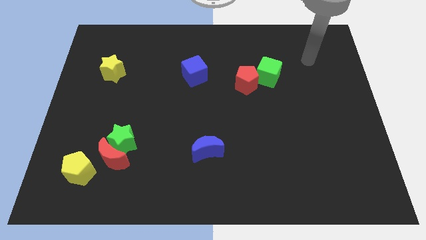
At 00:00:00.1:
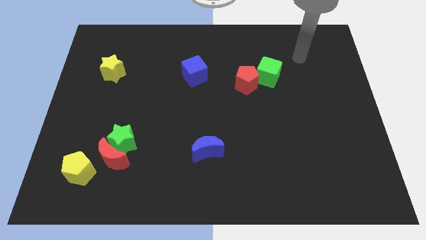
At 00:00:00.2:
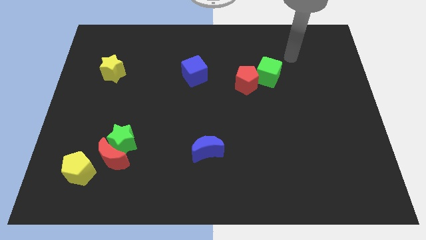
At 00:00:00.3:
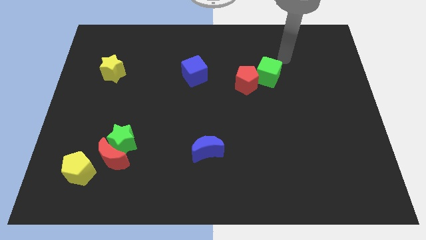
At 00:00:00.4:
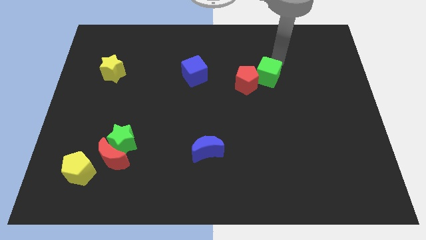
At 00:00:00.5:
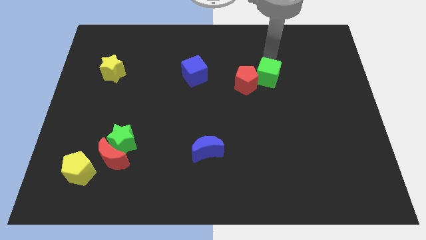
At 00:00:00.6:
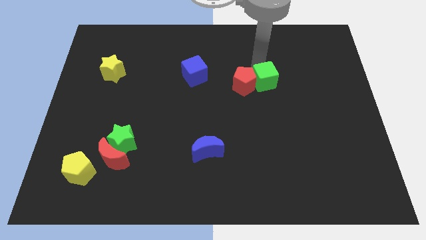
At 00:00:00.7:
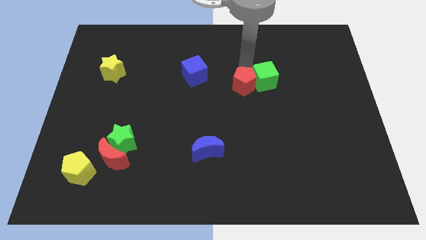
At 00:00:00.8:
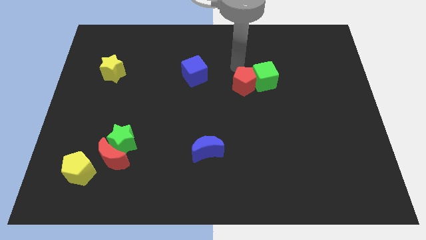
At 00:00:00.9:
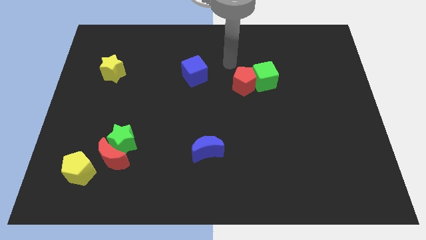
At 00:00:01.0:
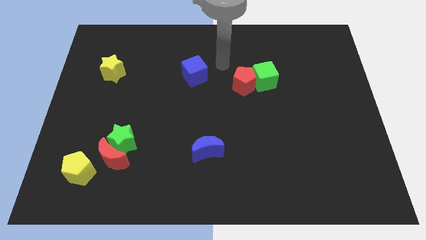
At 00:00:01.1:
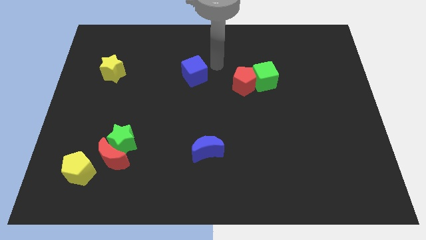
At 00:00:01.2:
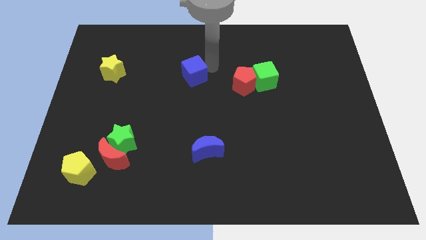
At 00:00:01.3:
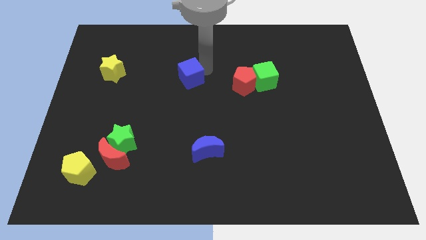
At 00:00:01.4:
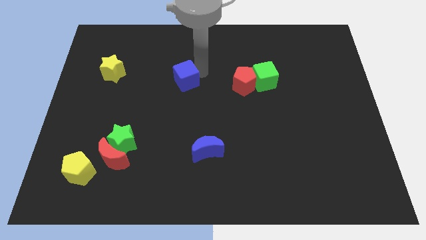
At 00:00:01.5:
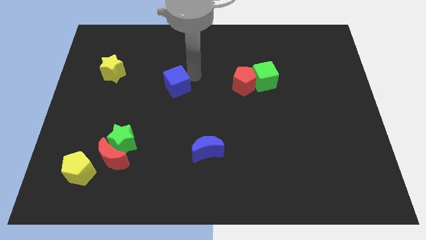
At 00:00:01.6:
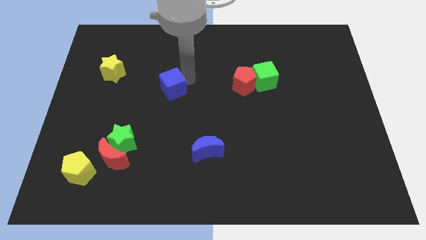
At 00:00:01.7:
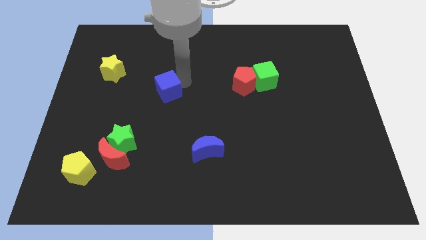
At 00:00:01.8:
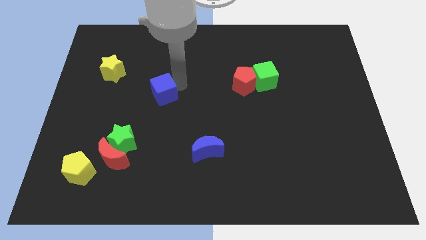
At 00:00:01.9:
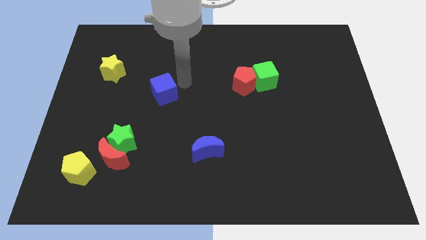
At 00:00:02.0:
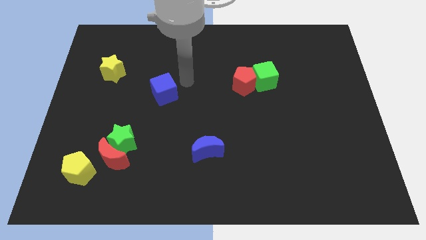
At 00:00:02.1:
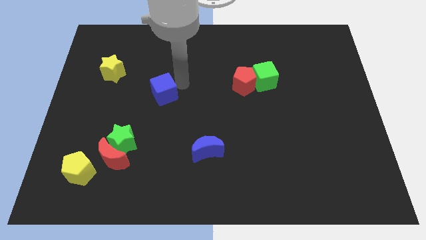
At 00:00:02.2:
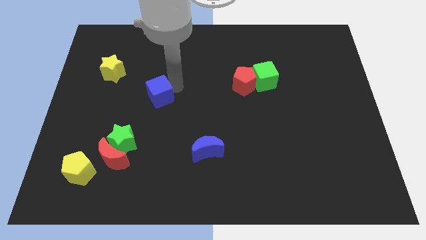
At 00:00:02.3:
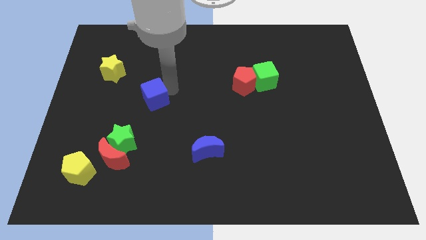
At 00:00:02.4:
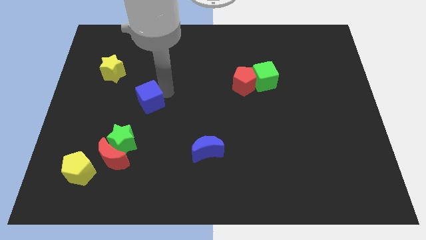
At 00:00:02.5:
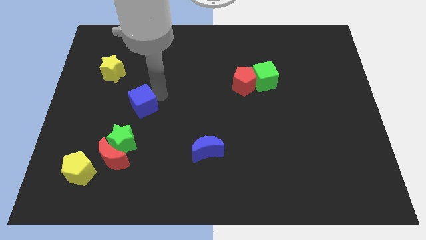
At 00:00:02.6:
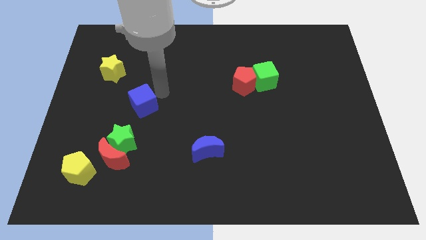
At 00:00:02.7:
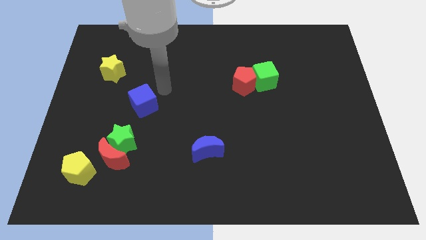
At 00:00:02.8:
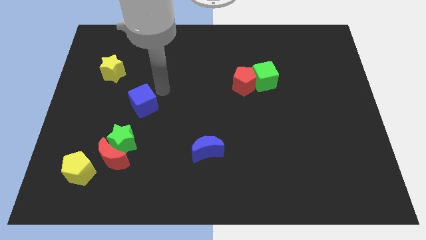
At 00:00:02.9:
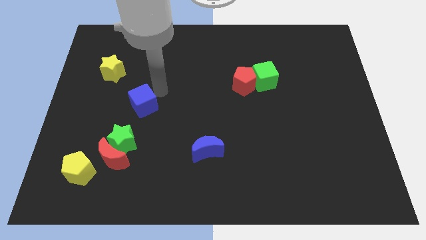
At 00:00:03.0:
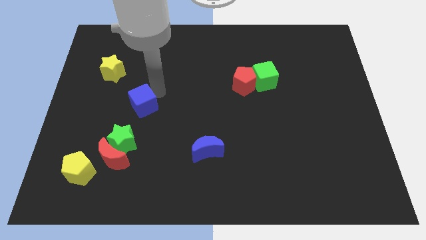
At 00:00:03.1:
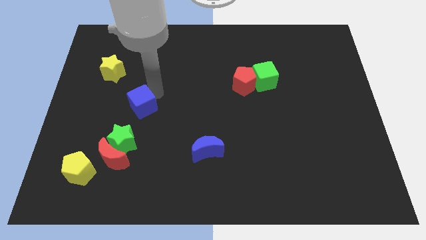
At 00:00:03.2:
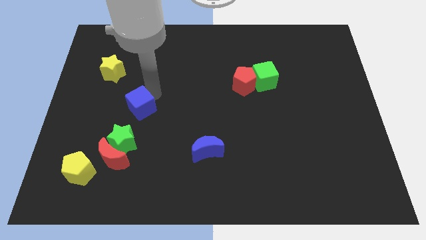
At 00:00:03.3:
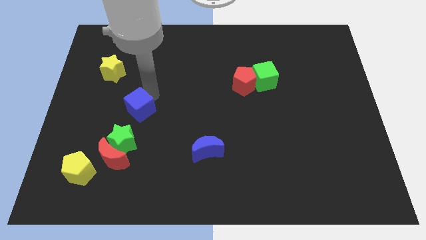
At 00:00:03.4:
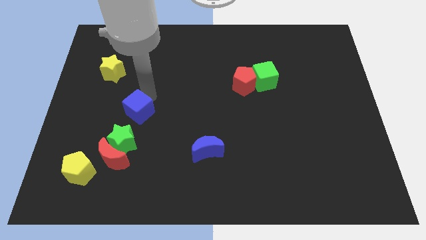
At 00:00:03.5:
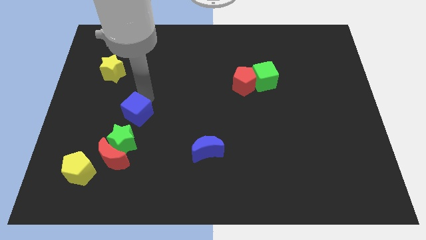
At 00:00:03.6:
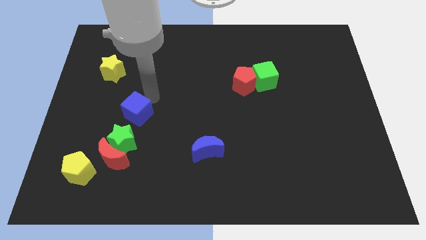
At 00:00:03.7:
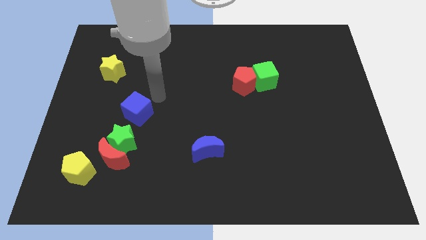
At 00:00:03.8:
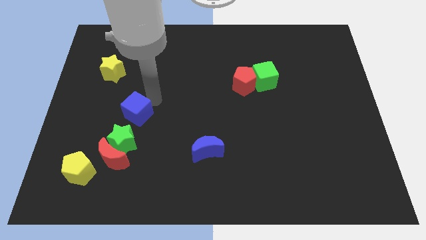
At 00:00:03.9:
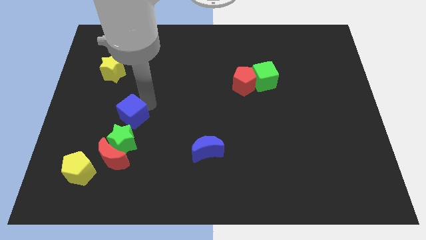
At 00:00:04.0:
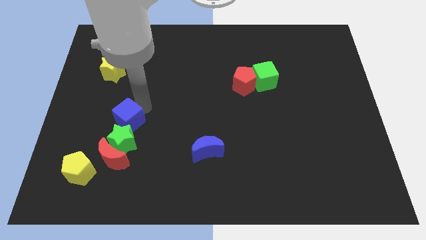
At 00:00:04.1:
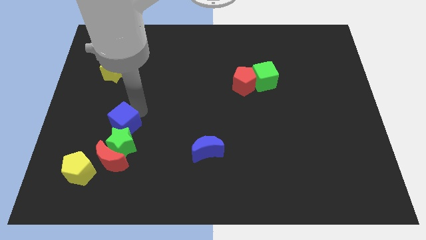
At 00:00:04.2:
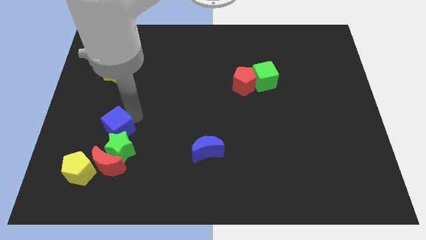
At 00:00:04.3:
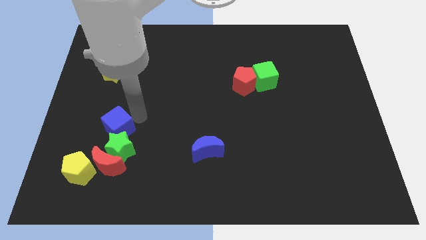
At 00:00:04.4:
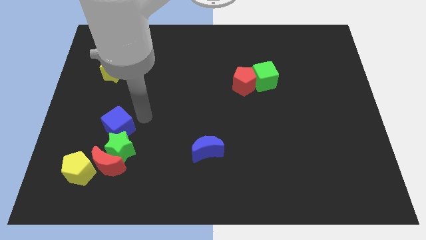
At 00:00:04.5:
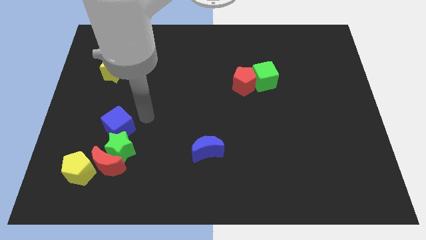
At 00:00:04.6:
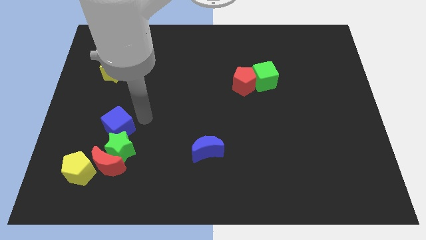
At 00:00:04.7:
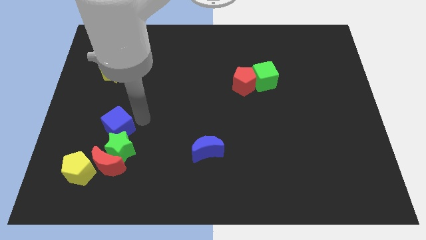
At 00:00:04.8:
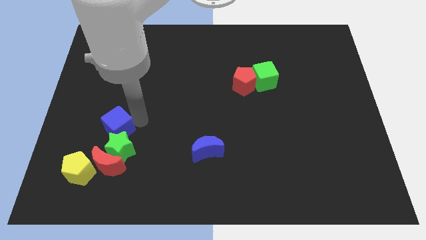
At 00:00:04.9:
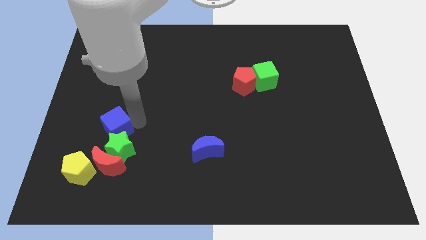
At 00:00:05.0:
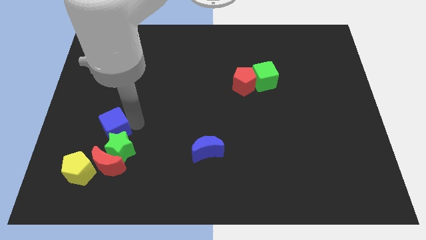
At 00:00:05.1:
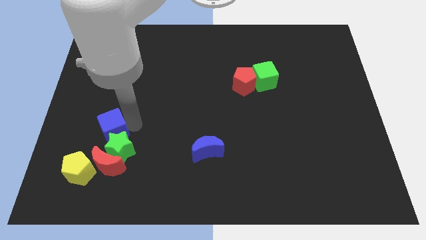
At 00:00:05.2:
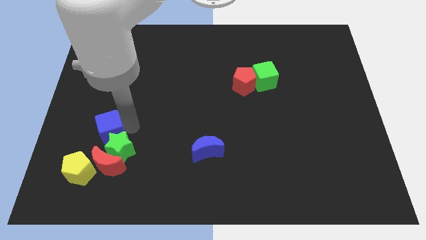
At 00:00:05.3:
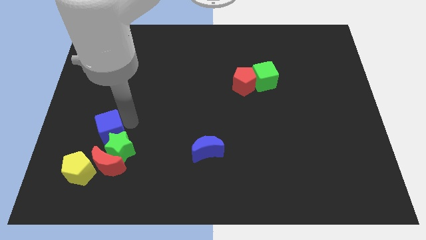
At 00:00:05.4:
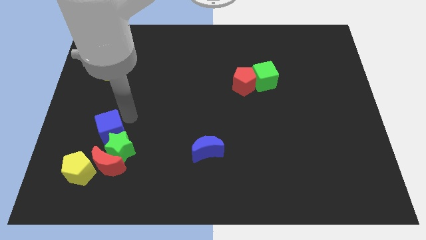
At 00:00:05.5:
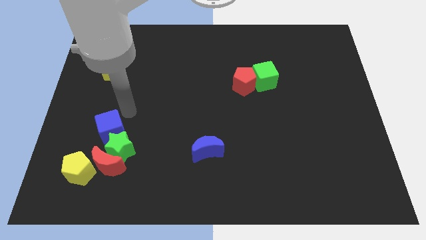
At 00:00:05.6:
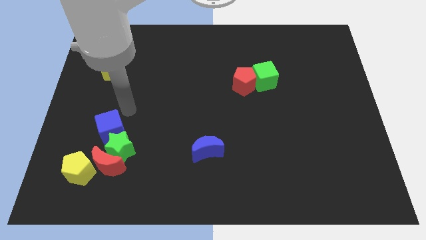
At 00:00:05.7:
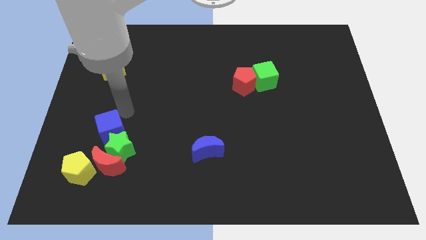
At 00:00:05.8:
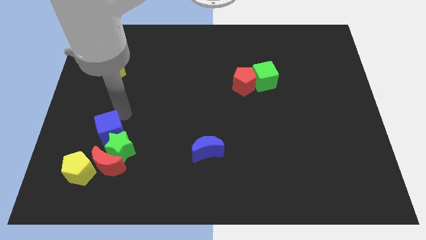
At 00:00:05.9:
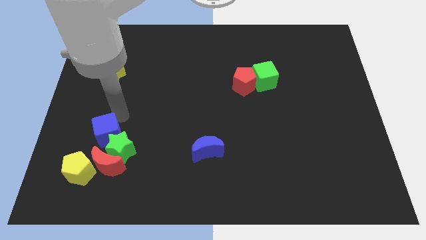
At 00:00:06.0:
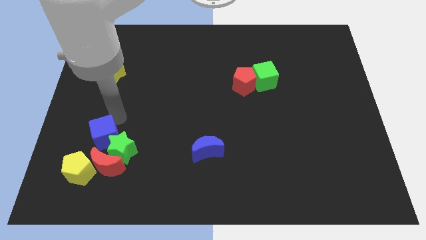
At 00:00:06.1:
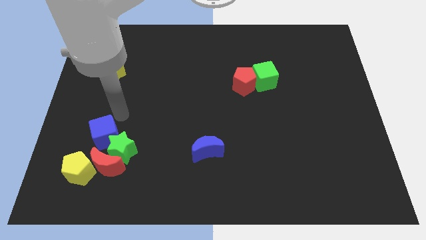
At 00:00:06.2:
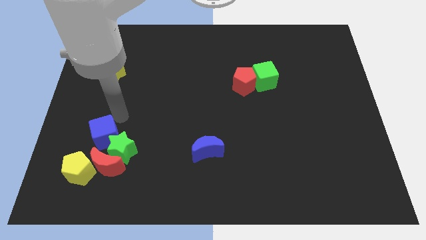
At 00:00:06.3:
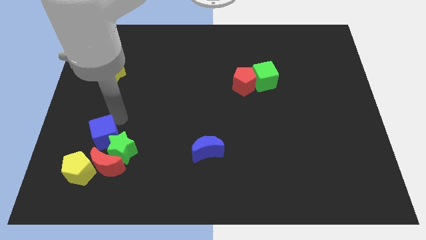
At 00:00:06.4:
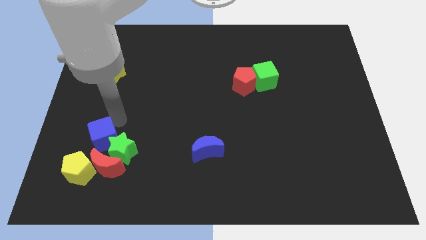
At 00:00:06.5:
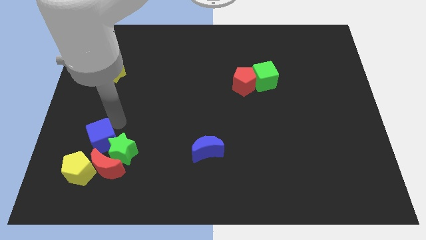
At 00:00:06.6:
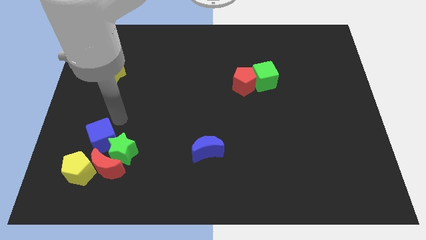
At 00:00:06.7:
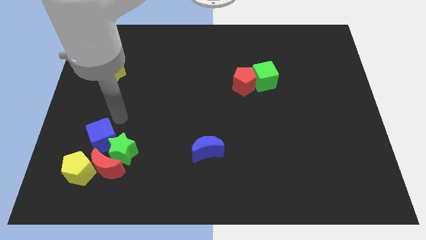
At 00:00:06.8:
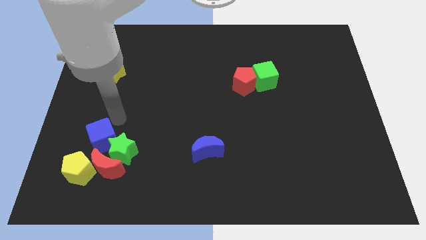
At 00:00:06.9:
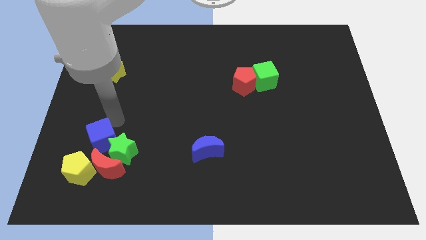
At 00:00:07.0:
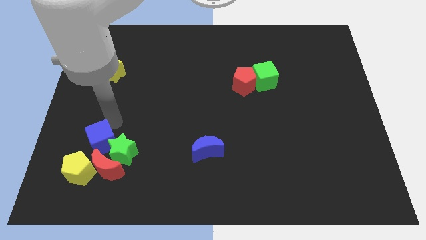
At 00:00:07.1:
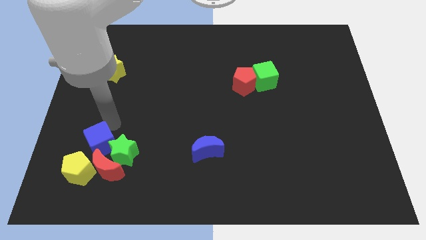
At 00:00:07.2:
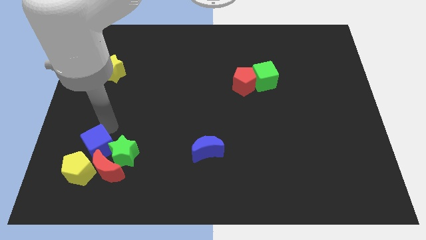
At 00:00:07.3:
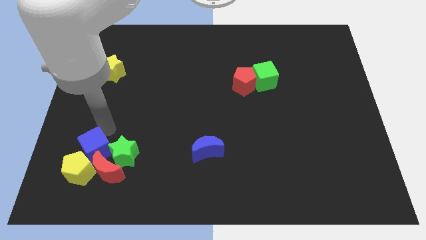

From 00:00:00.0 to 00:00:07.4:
put the blue cube to the yellow pentagon

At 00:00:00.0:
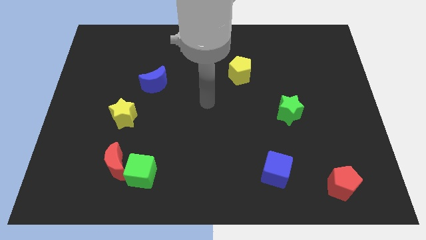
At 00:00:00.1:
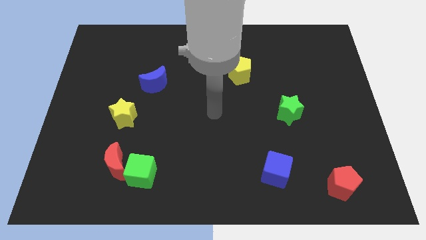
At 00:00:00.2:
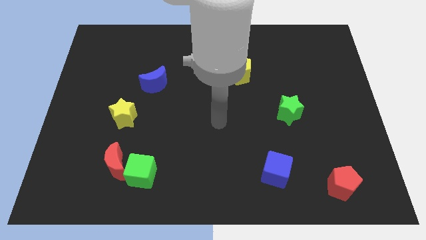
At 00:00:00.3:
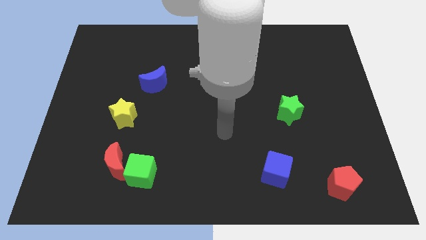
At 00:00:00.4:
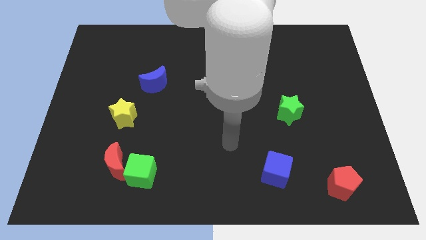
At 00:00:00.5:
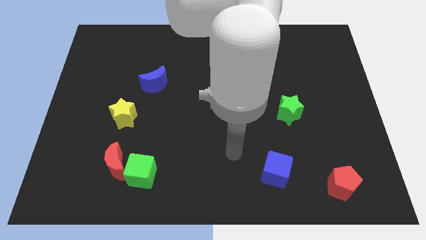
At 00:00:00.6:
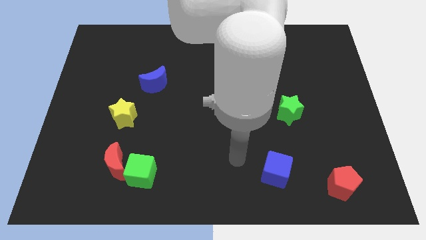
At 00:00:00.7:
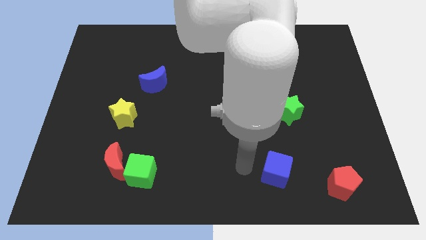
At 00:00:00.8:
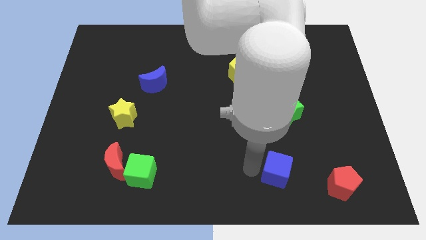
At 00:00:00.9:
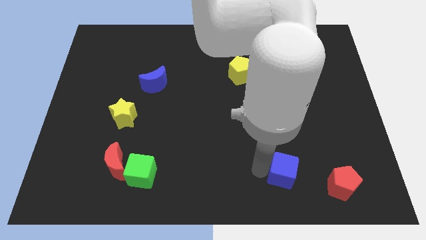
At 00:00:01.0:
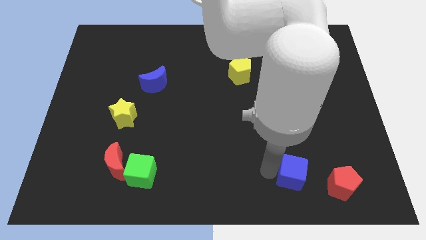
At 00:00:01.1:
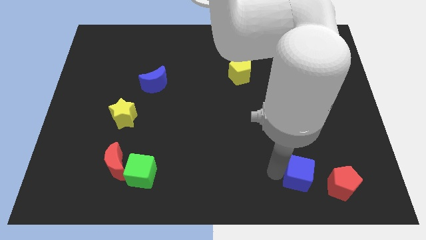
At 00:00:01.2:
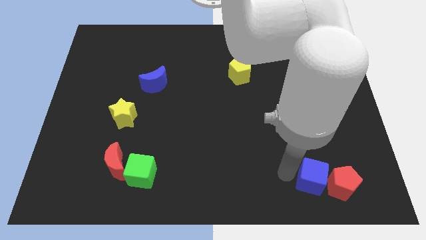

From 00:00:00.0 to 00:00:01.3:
move the blue cube close to the red pentagon
